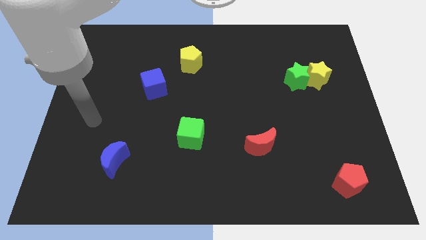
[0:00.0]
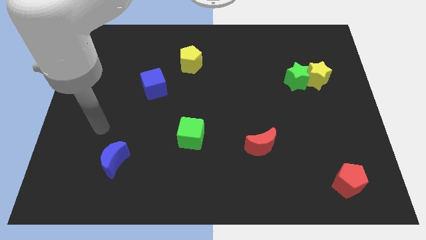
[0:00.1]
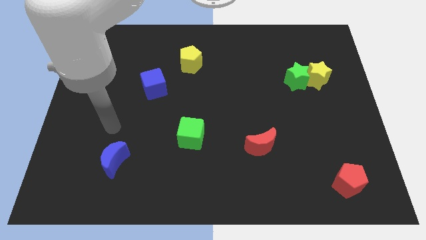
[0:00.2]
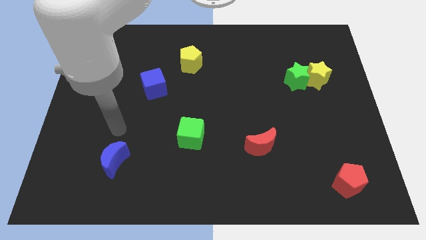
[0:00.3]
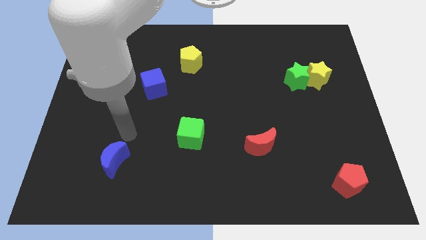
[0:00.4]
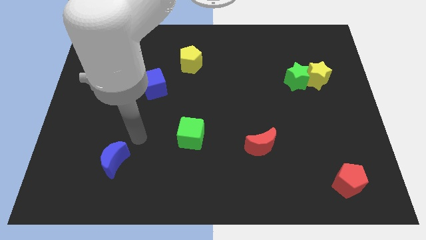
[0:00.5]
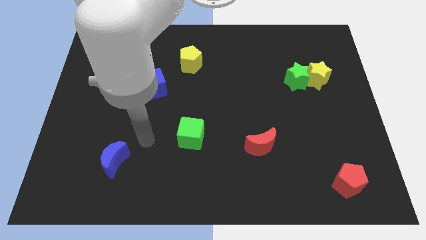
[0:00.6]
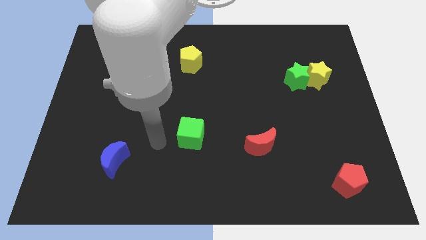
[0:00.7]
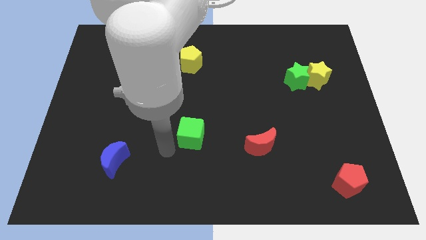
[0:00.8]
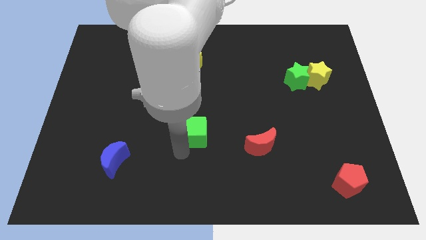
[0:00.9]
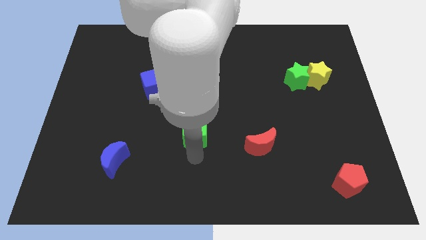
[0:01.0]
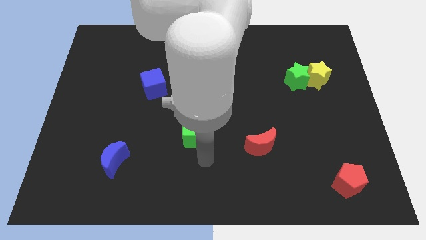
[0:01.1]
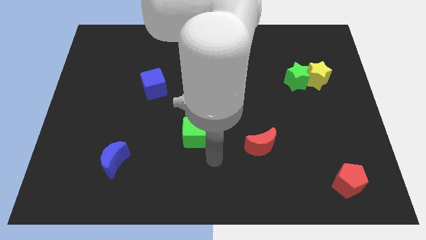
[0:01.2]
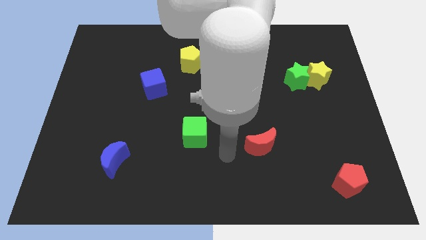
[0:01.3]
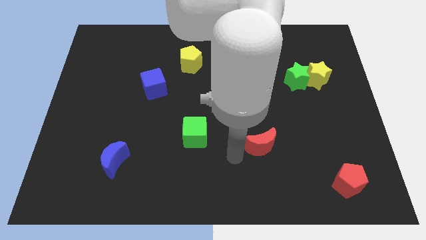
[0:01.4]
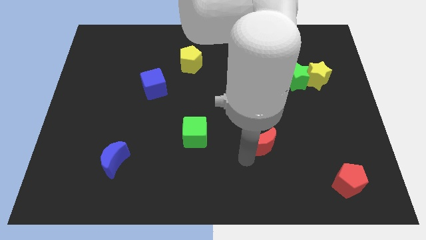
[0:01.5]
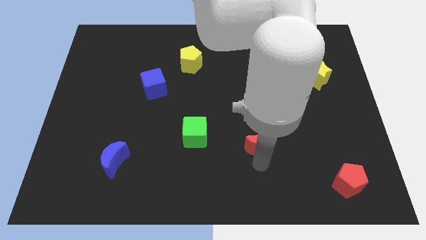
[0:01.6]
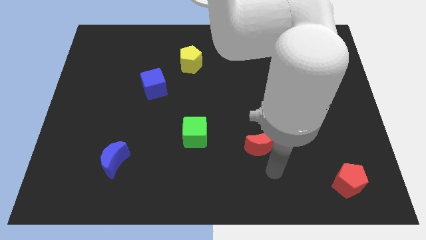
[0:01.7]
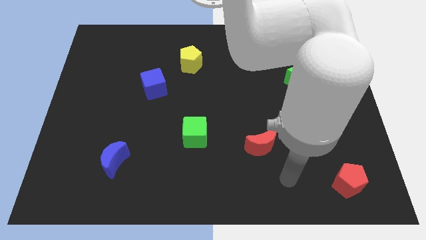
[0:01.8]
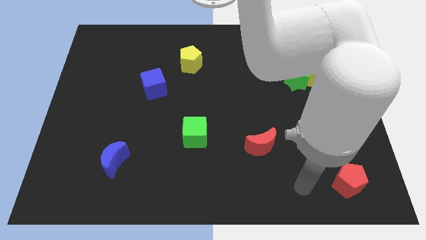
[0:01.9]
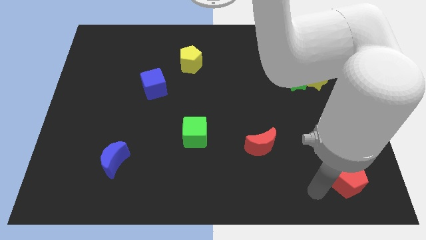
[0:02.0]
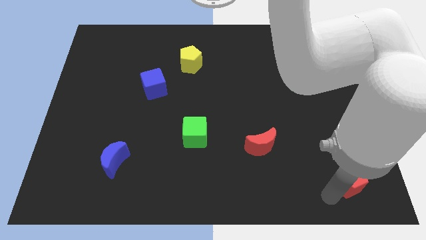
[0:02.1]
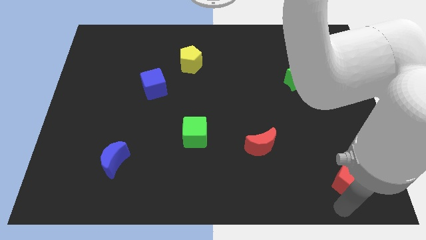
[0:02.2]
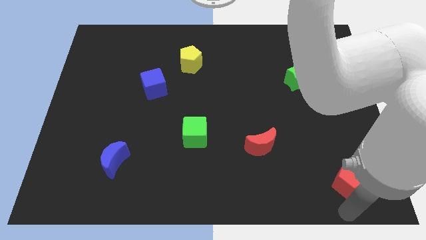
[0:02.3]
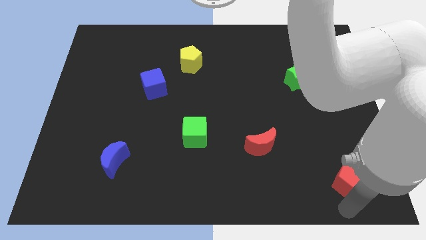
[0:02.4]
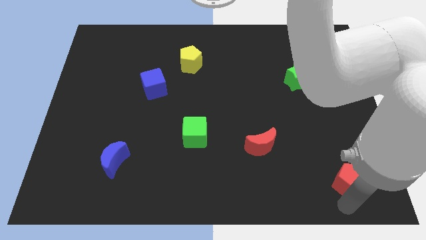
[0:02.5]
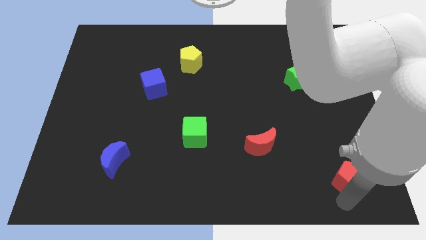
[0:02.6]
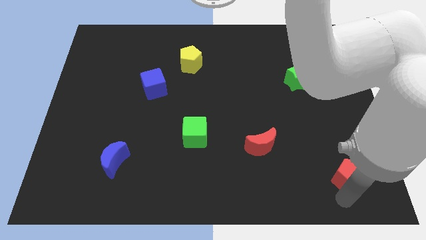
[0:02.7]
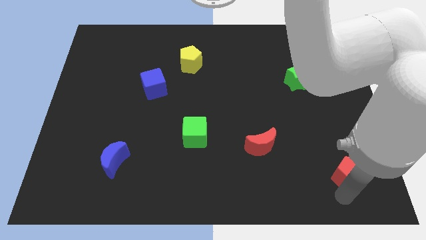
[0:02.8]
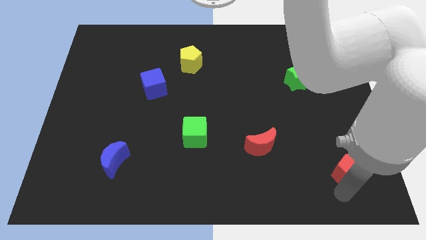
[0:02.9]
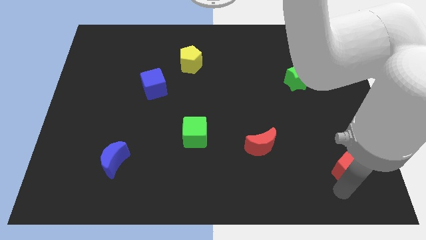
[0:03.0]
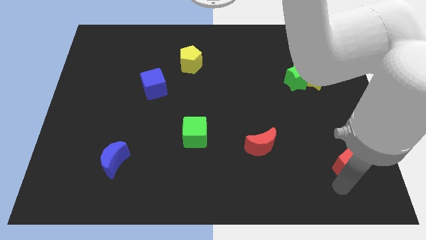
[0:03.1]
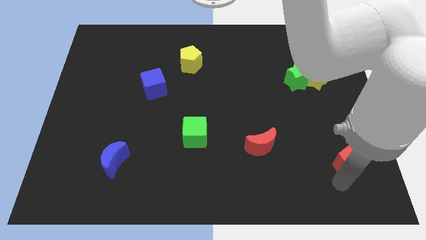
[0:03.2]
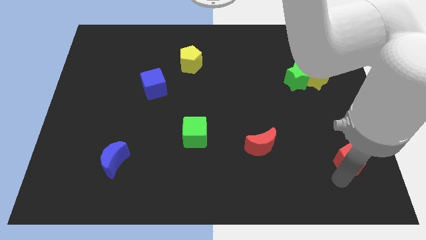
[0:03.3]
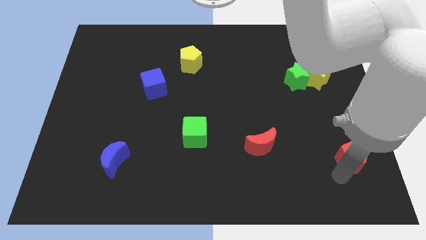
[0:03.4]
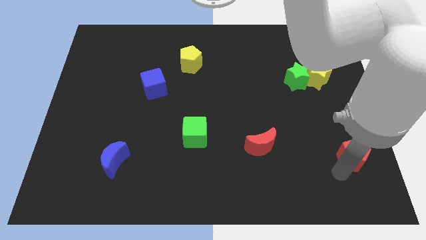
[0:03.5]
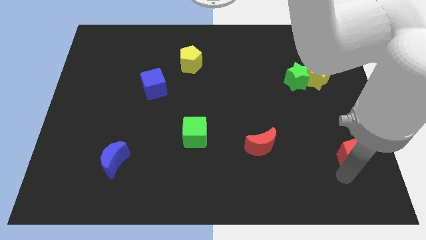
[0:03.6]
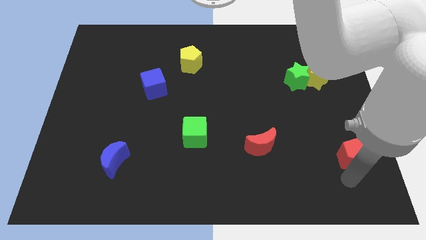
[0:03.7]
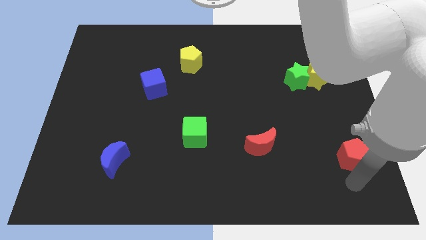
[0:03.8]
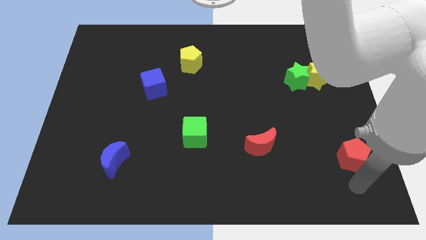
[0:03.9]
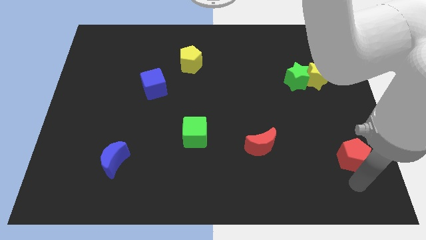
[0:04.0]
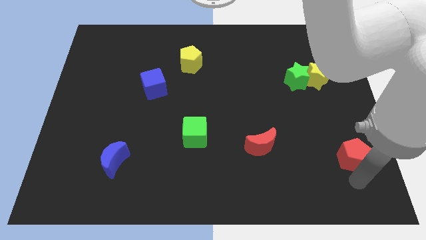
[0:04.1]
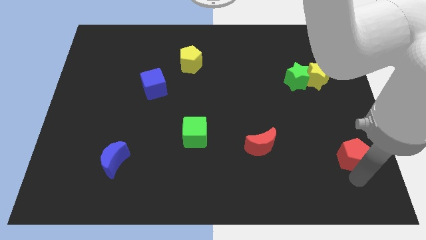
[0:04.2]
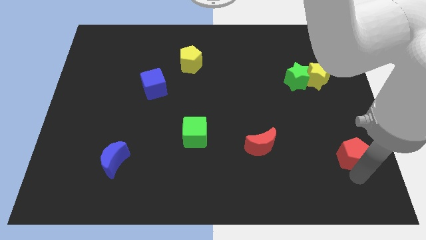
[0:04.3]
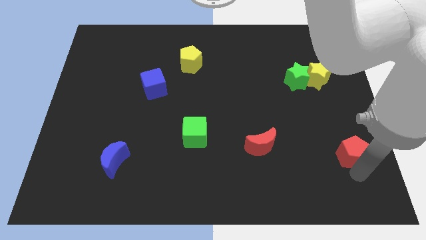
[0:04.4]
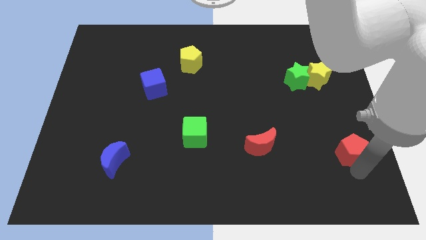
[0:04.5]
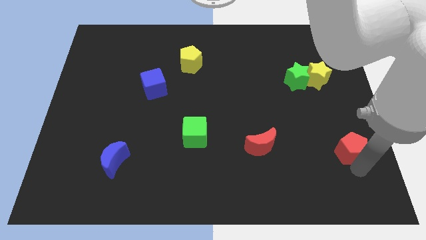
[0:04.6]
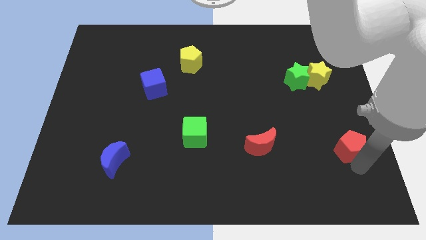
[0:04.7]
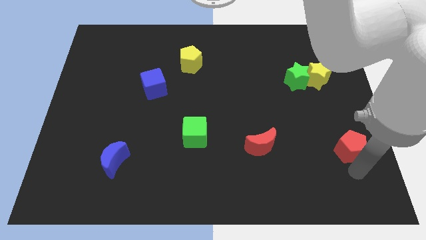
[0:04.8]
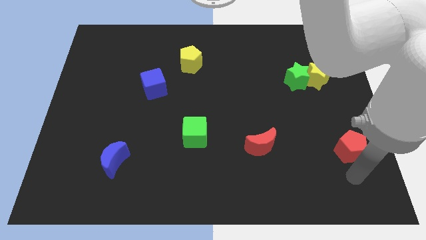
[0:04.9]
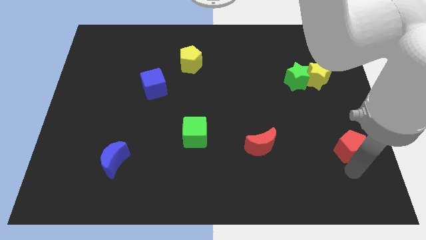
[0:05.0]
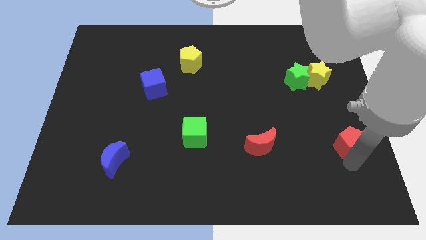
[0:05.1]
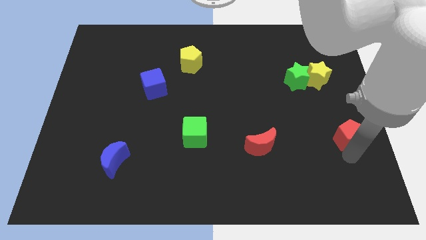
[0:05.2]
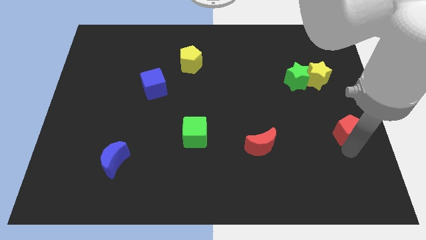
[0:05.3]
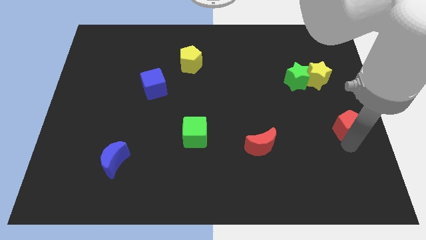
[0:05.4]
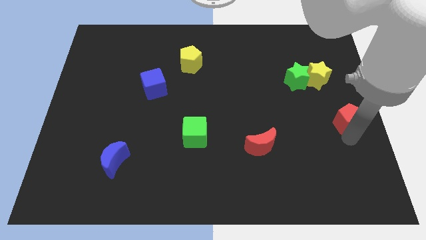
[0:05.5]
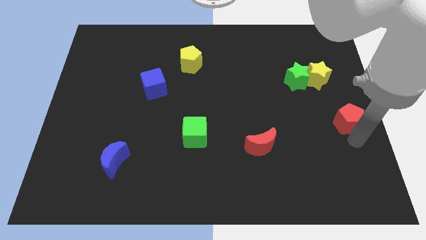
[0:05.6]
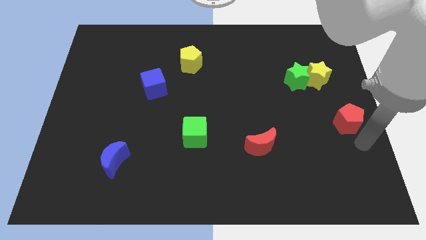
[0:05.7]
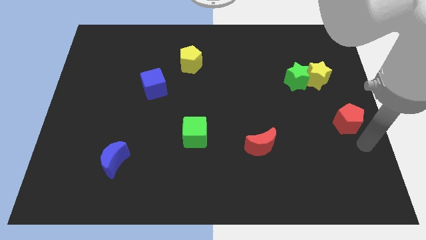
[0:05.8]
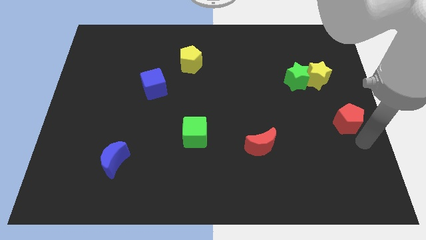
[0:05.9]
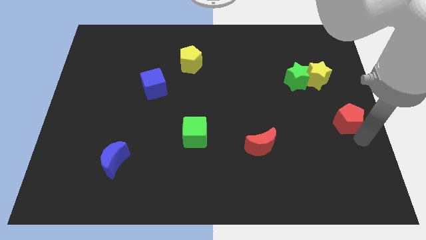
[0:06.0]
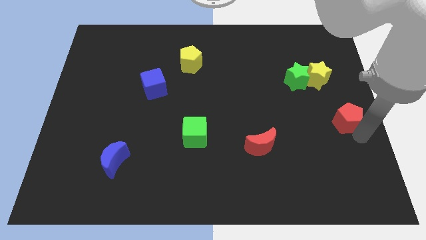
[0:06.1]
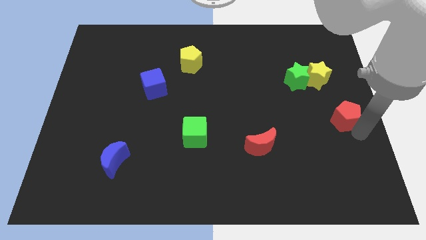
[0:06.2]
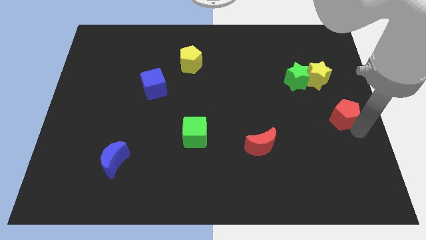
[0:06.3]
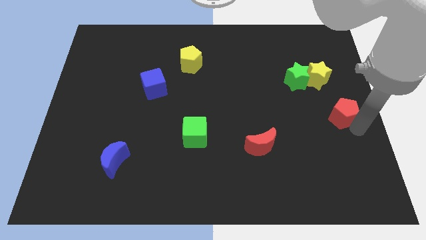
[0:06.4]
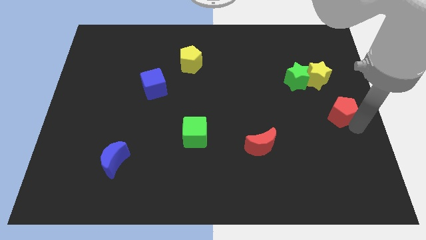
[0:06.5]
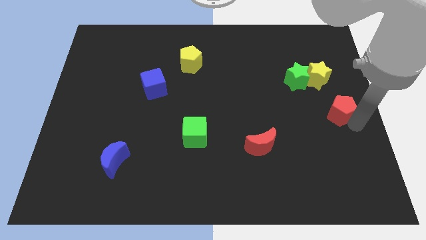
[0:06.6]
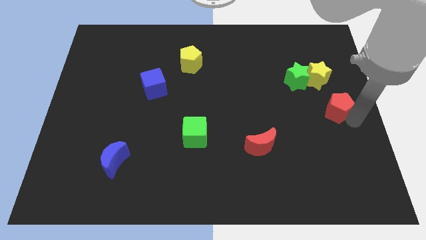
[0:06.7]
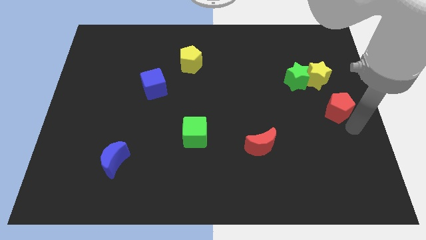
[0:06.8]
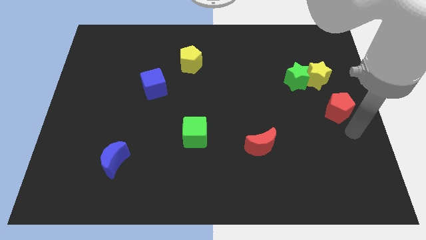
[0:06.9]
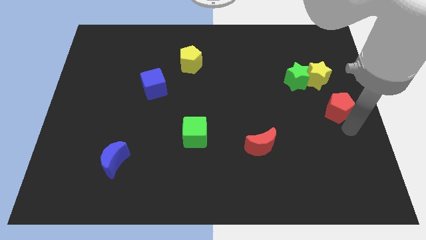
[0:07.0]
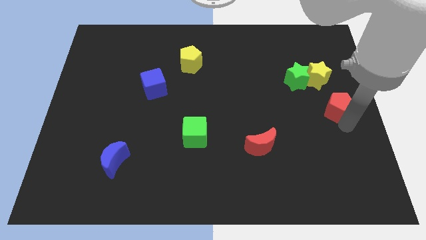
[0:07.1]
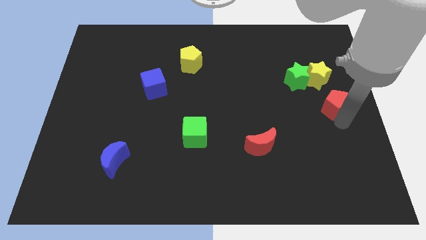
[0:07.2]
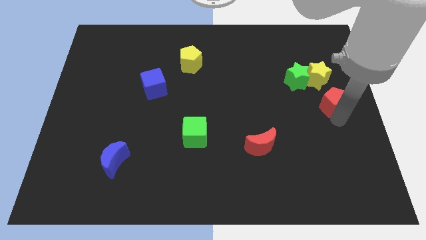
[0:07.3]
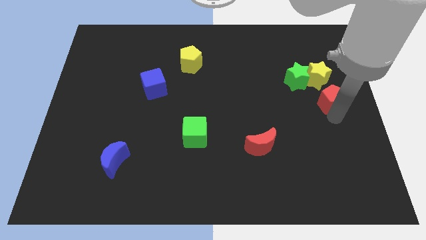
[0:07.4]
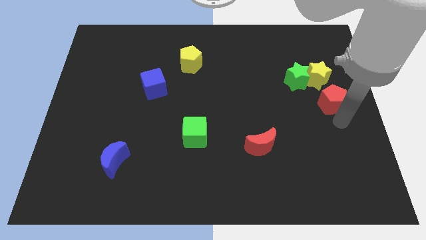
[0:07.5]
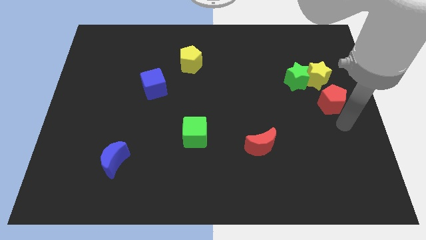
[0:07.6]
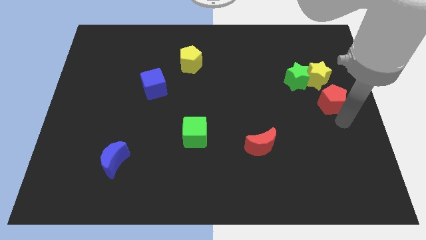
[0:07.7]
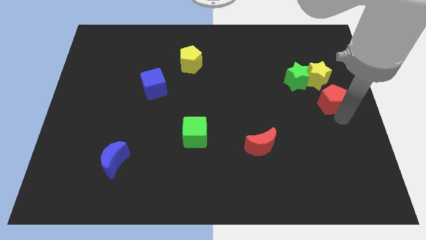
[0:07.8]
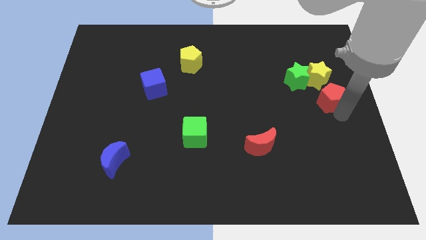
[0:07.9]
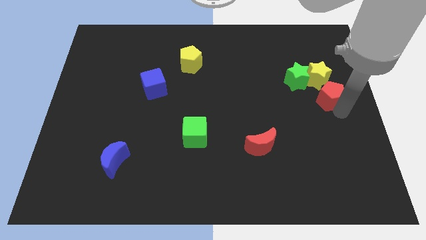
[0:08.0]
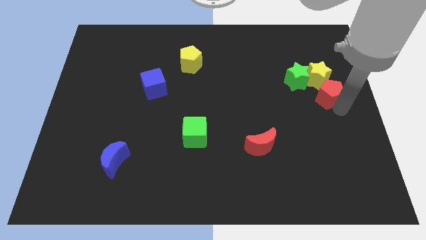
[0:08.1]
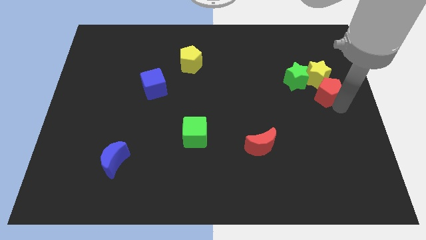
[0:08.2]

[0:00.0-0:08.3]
push the red pentagon next to the yellow star
